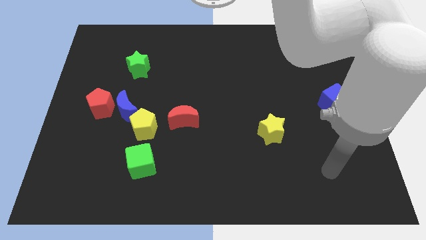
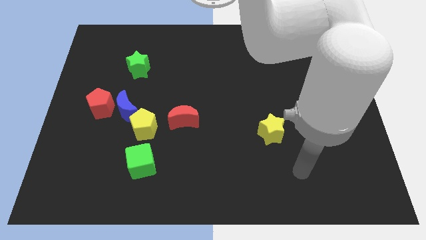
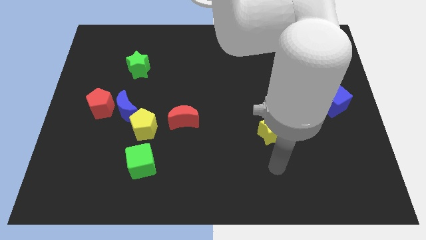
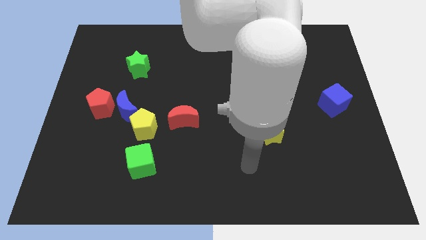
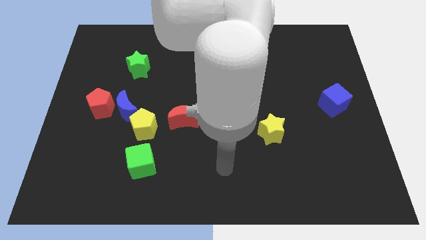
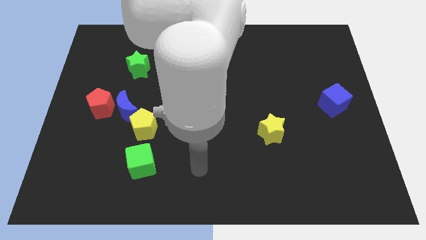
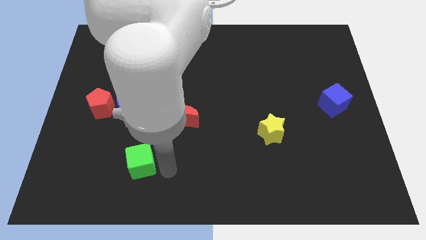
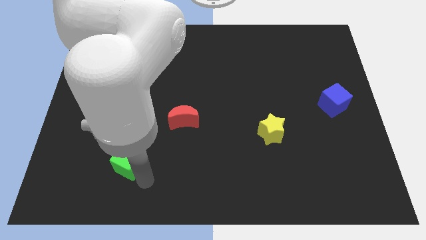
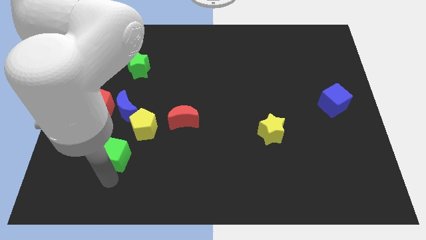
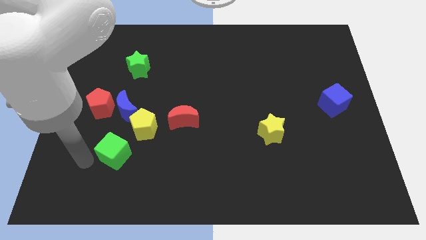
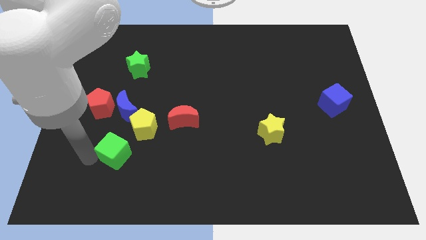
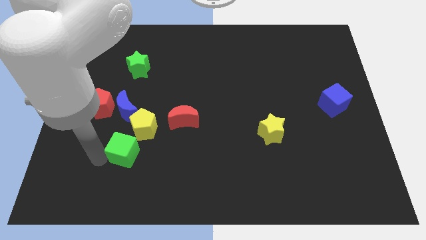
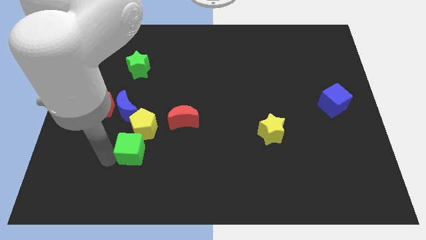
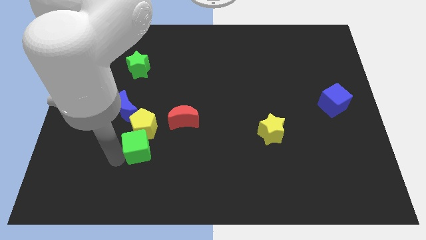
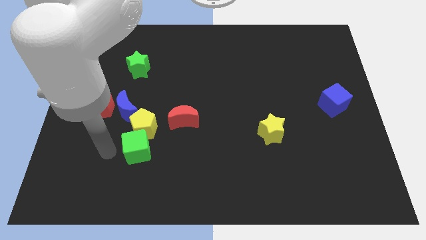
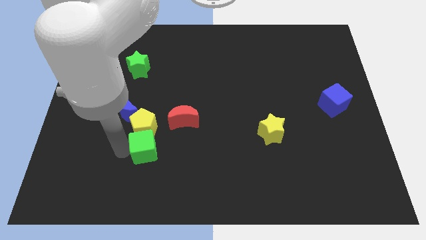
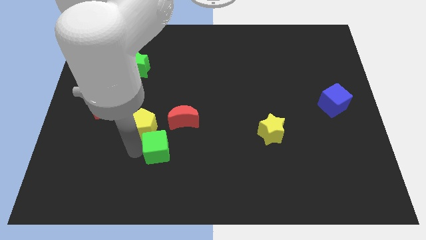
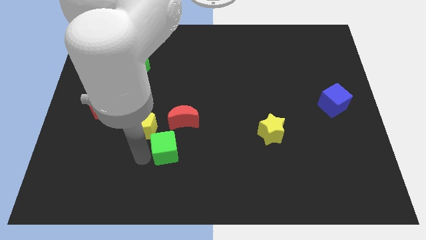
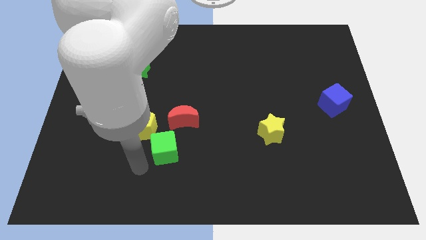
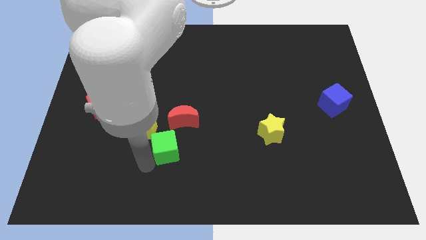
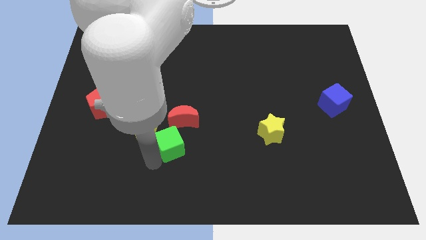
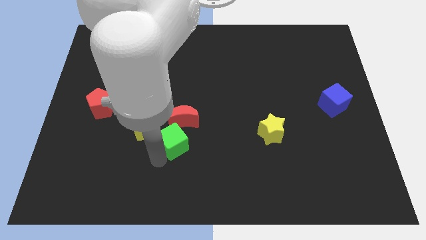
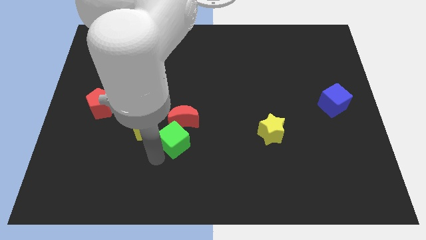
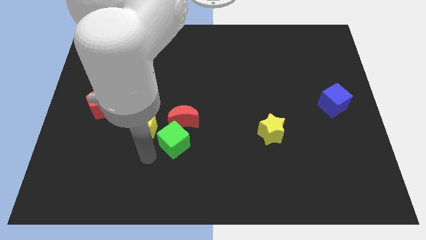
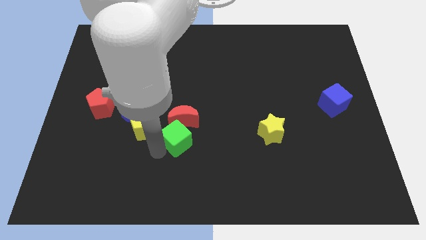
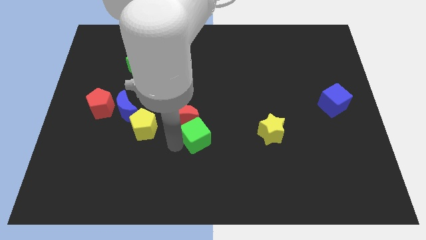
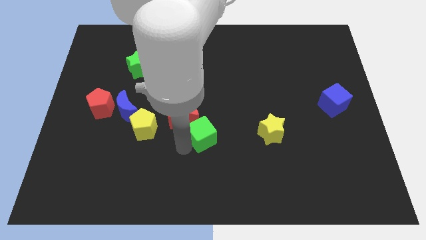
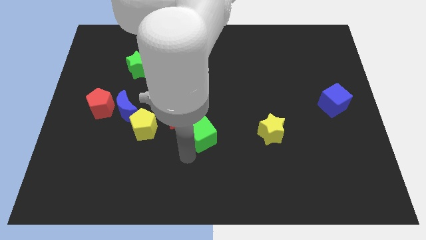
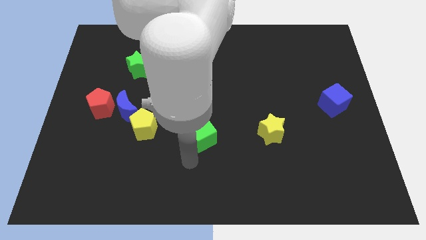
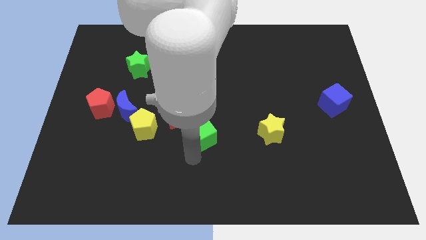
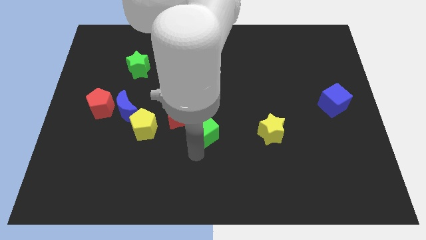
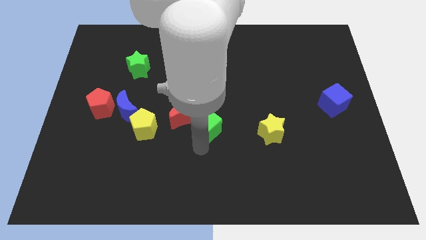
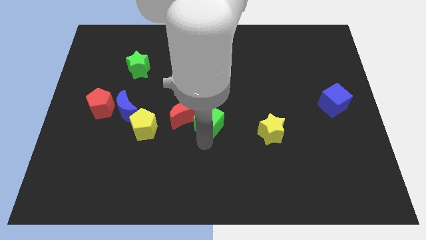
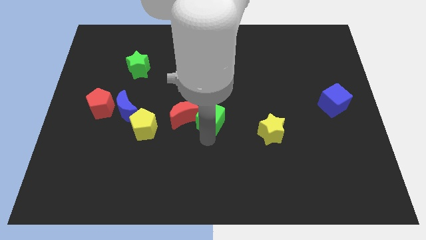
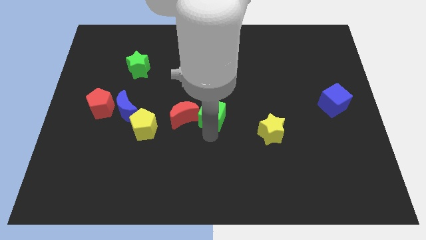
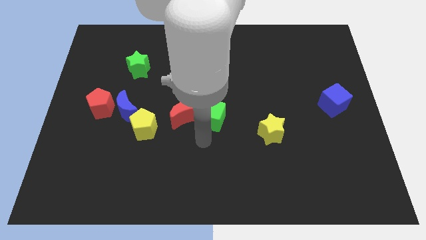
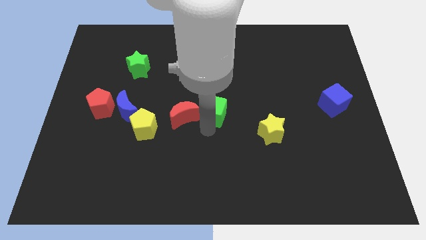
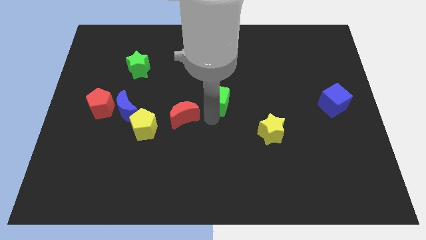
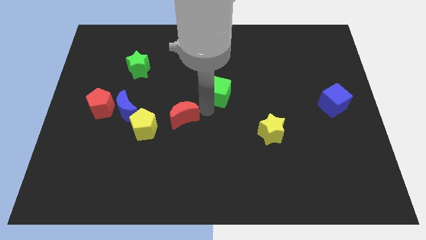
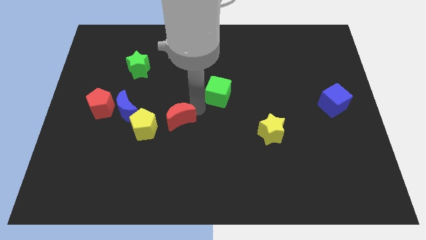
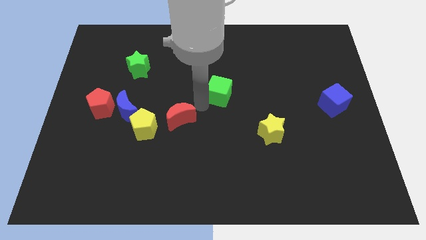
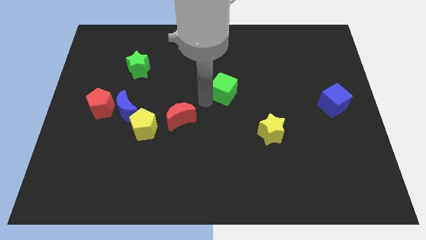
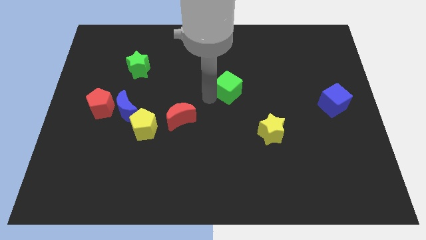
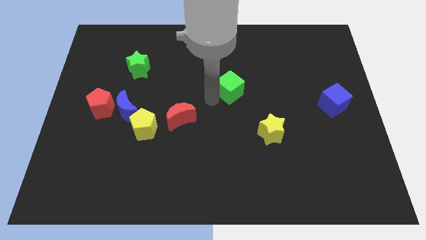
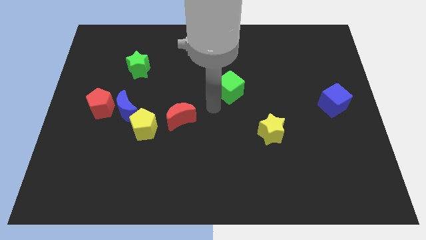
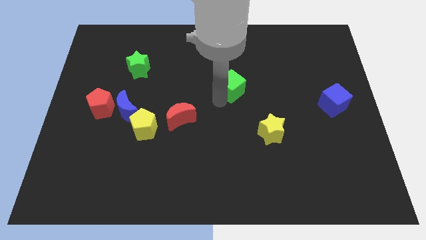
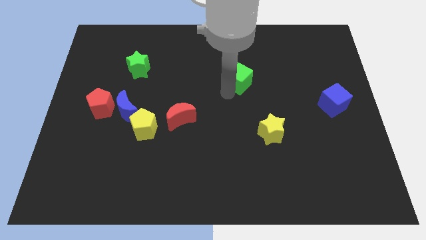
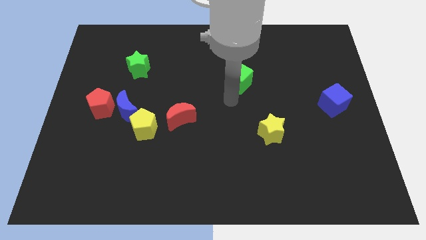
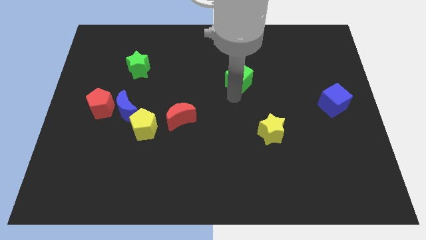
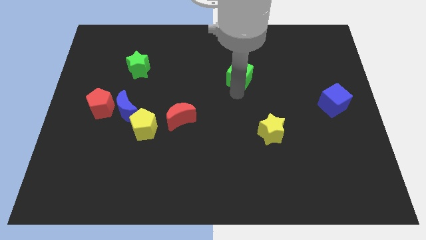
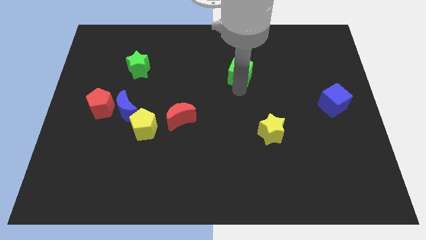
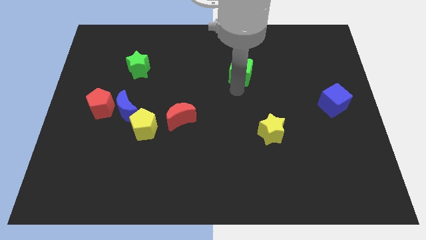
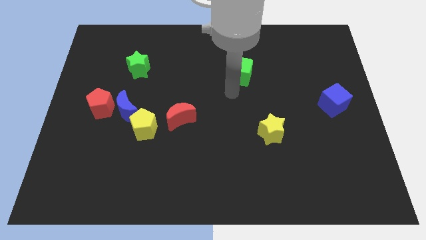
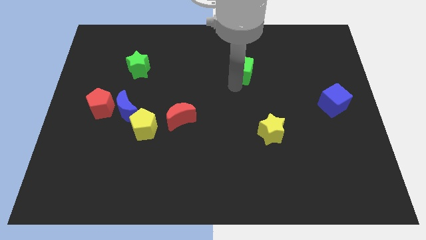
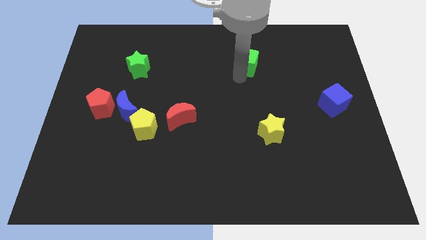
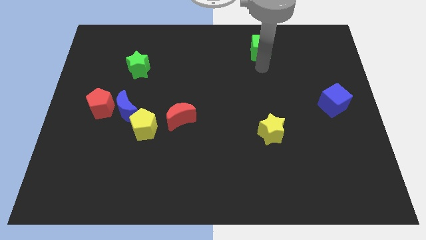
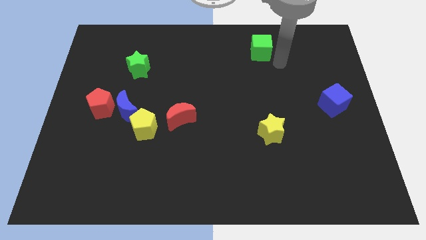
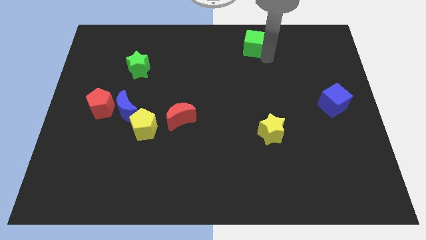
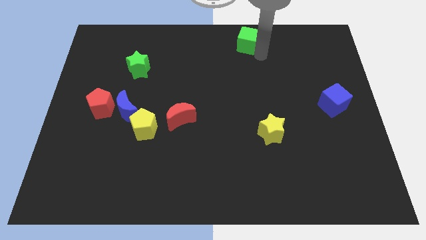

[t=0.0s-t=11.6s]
put the green cube to the top side
